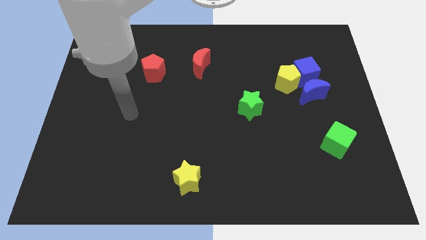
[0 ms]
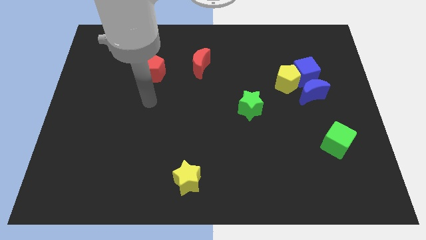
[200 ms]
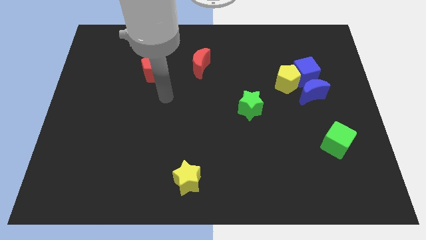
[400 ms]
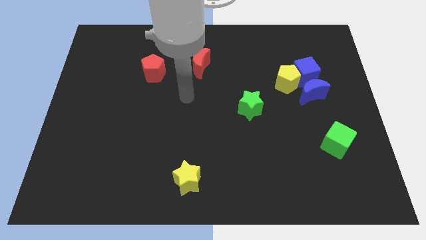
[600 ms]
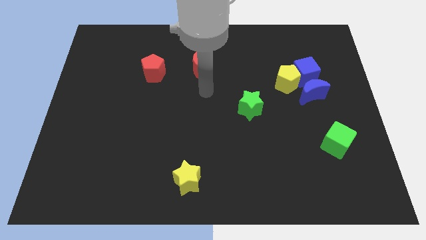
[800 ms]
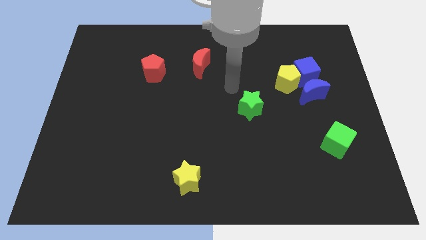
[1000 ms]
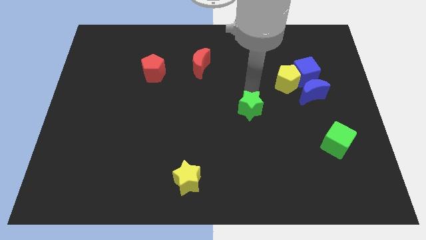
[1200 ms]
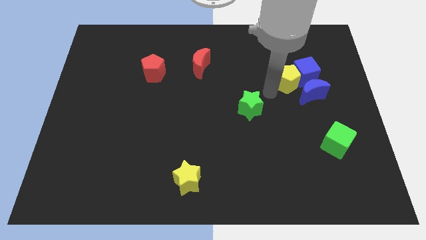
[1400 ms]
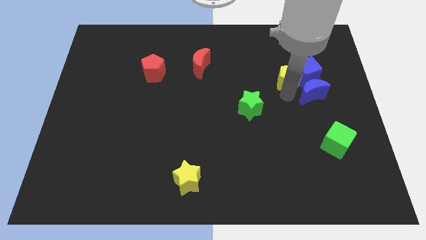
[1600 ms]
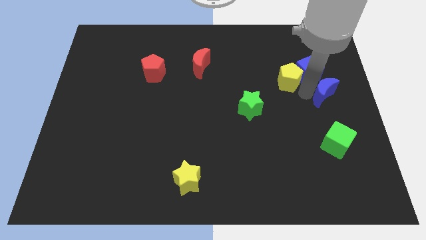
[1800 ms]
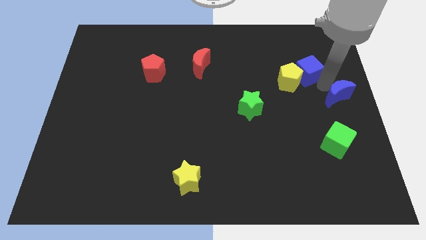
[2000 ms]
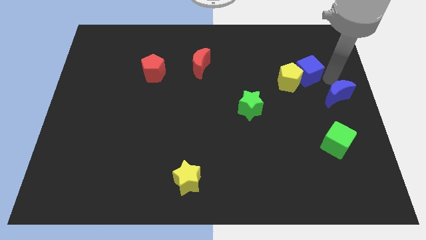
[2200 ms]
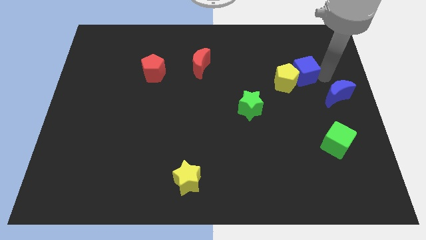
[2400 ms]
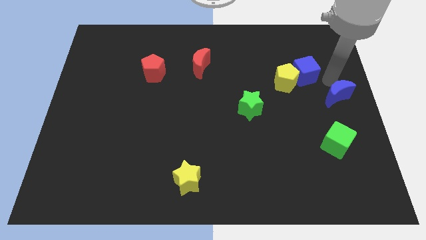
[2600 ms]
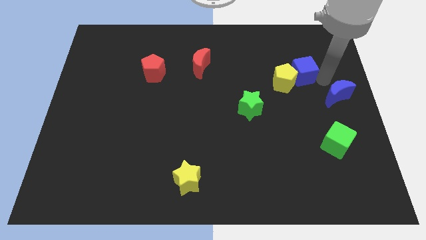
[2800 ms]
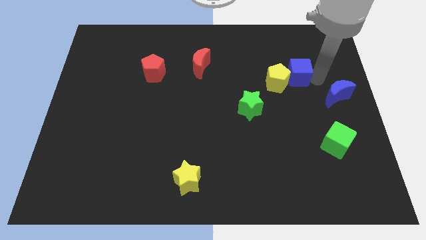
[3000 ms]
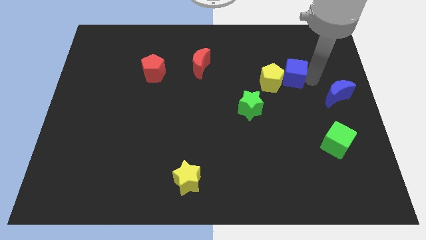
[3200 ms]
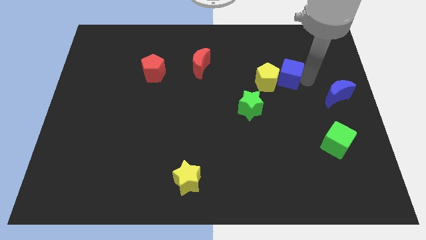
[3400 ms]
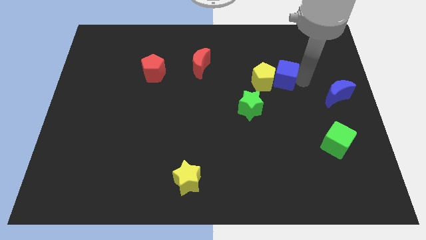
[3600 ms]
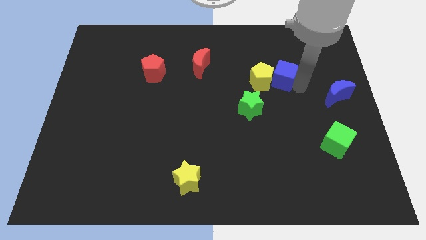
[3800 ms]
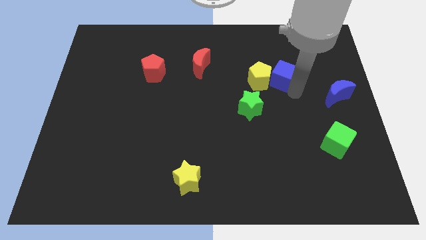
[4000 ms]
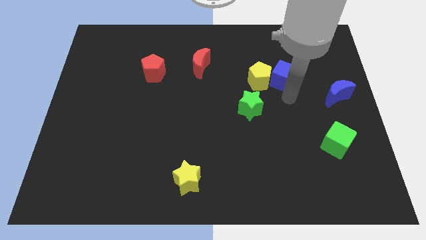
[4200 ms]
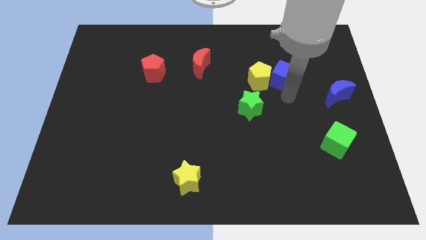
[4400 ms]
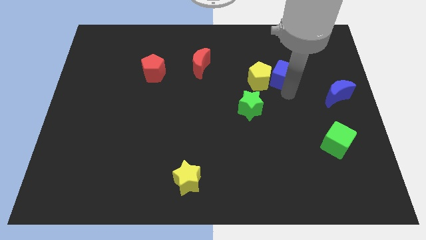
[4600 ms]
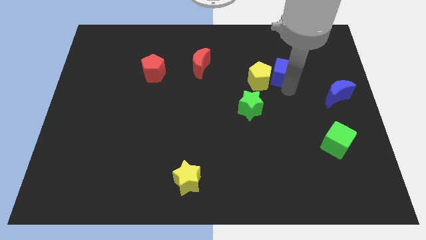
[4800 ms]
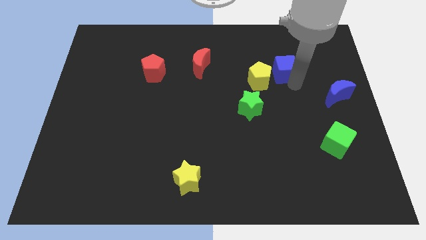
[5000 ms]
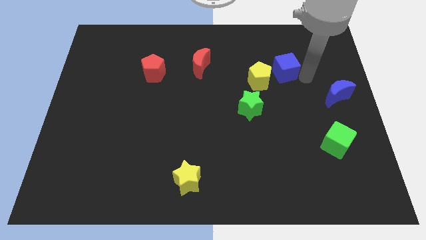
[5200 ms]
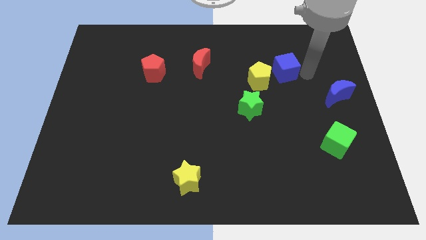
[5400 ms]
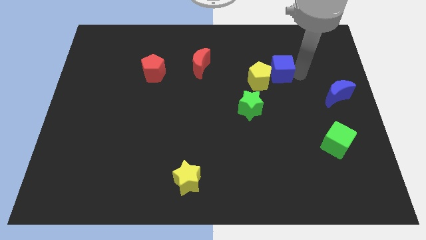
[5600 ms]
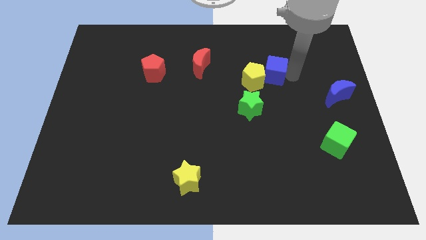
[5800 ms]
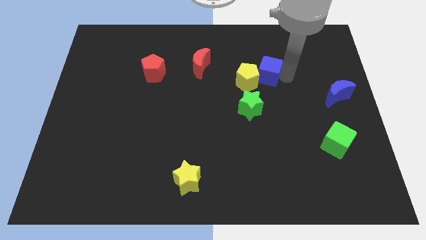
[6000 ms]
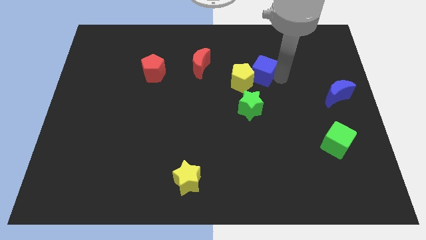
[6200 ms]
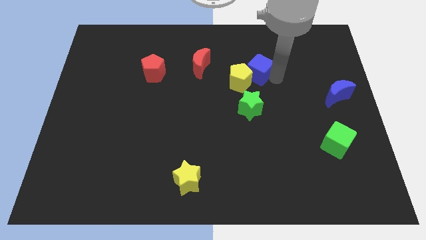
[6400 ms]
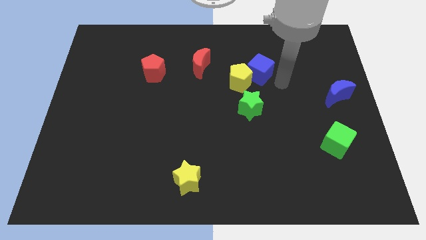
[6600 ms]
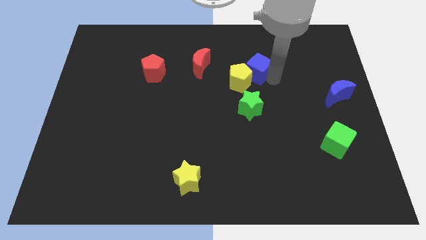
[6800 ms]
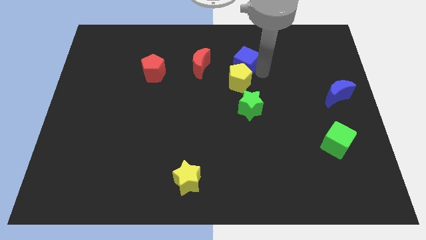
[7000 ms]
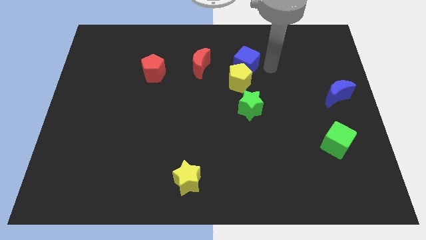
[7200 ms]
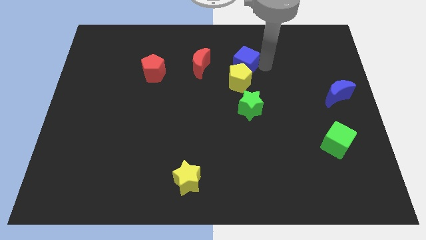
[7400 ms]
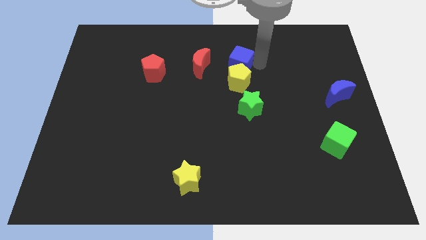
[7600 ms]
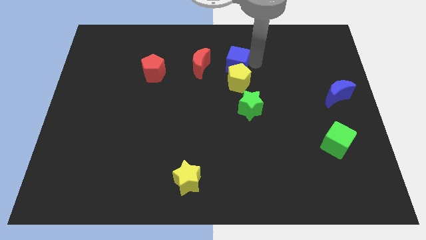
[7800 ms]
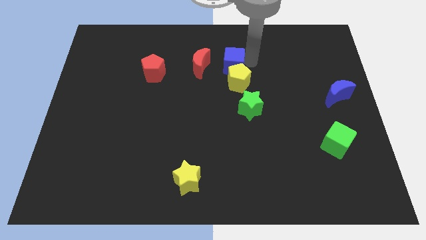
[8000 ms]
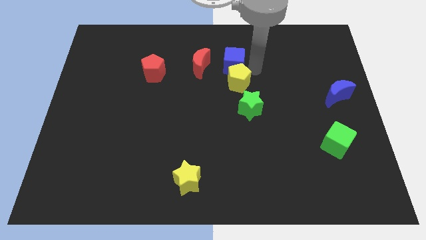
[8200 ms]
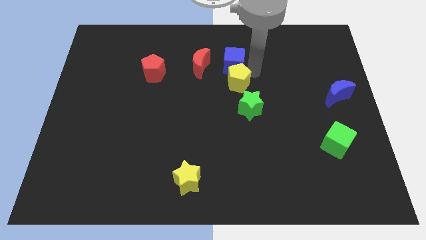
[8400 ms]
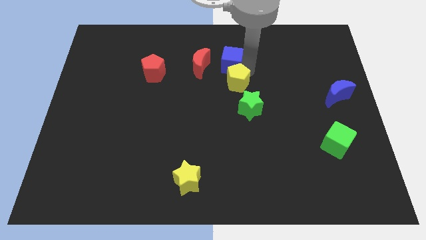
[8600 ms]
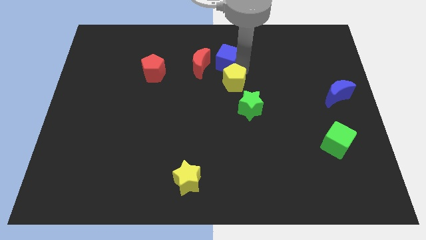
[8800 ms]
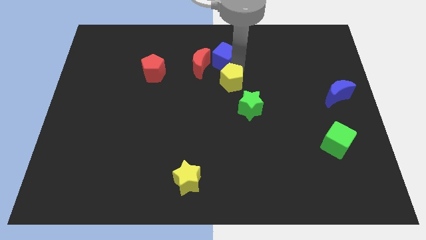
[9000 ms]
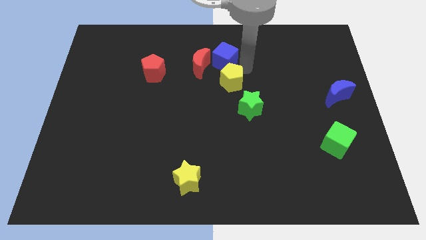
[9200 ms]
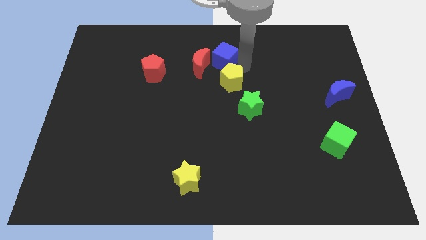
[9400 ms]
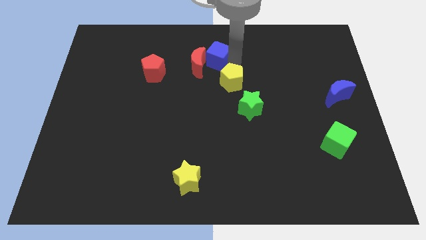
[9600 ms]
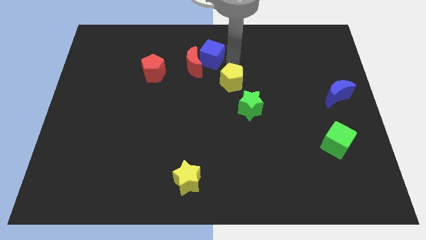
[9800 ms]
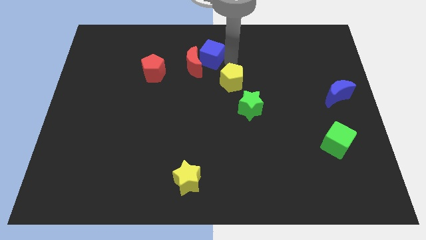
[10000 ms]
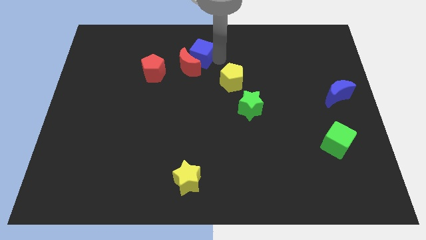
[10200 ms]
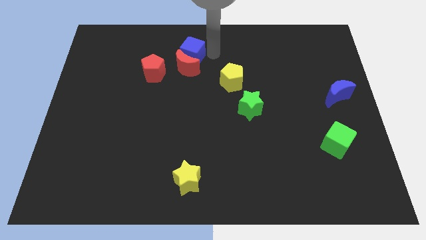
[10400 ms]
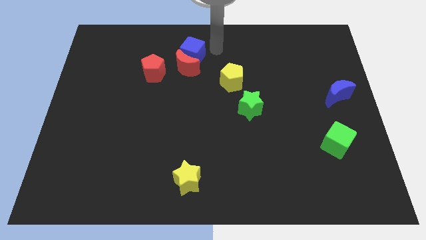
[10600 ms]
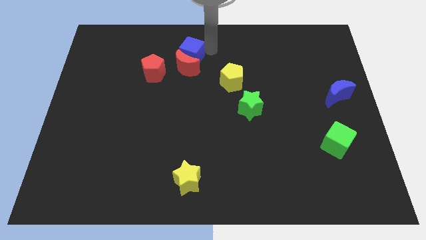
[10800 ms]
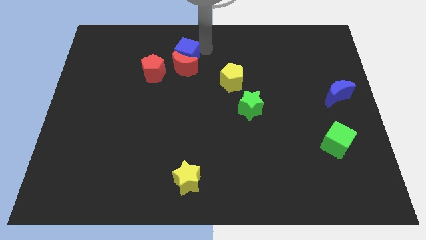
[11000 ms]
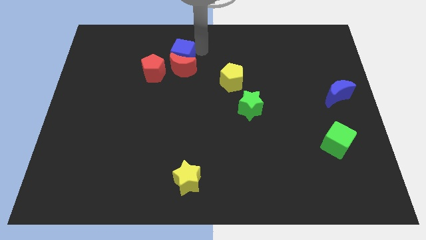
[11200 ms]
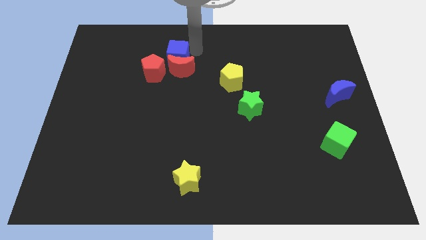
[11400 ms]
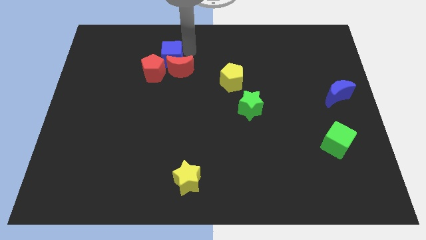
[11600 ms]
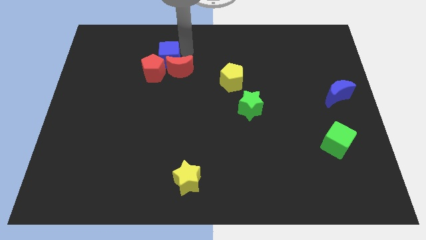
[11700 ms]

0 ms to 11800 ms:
move the blue cube to the left of the red moon

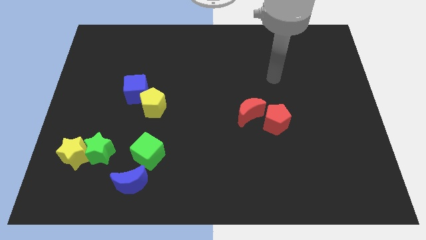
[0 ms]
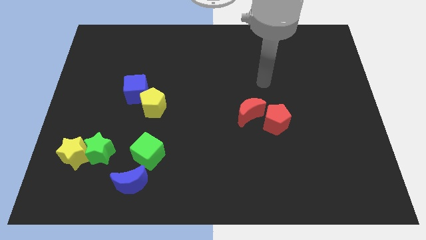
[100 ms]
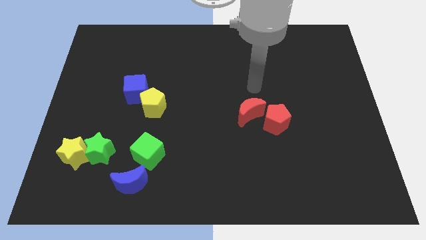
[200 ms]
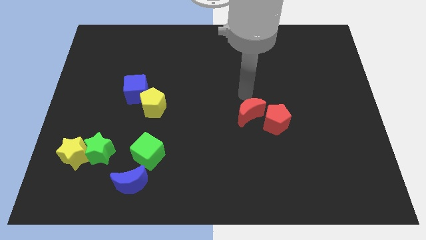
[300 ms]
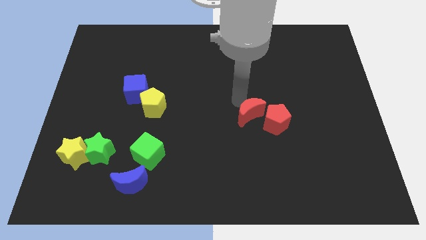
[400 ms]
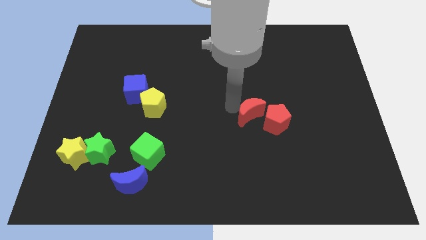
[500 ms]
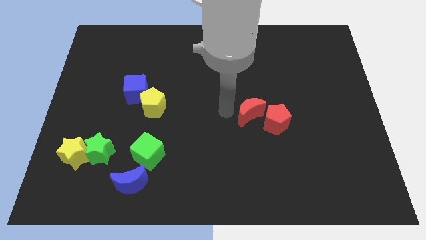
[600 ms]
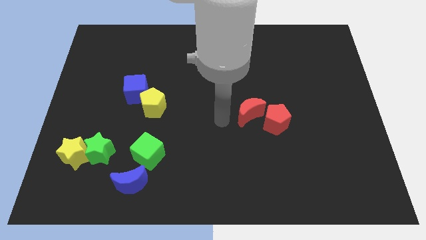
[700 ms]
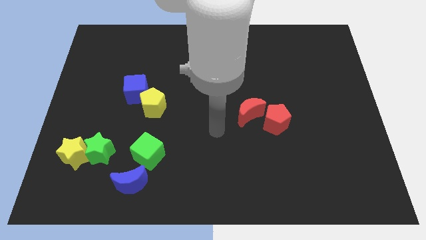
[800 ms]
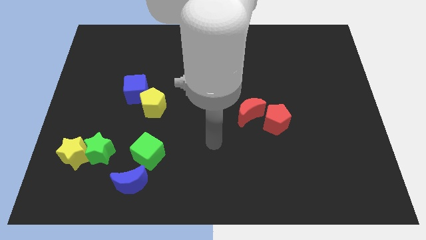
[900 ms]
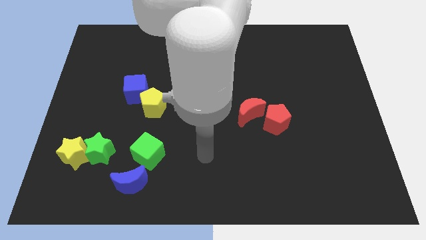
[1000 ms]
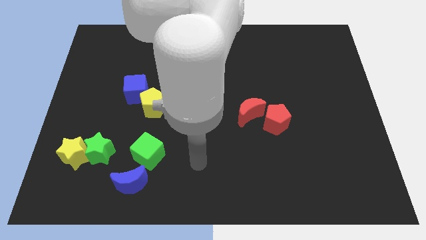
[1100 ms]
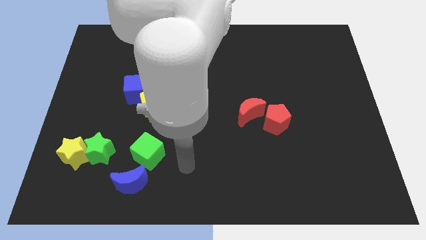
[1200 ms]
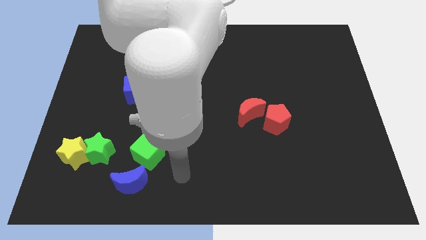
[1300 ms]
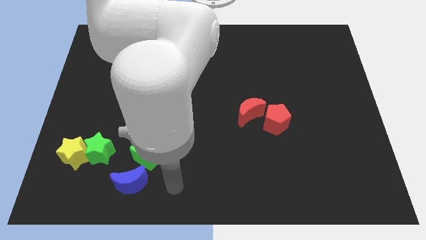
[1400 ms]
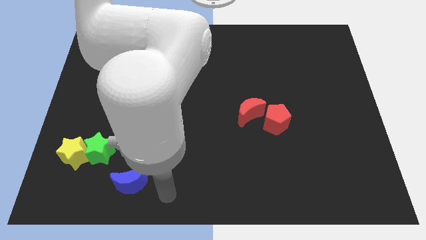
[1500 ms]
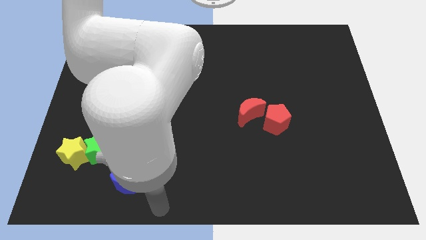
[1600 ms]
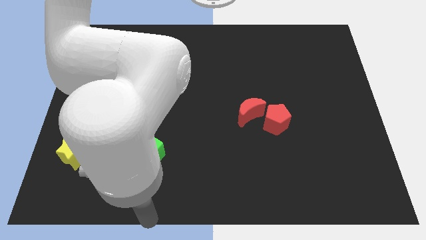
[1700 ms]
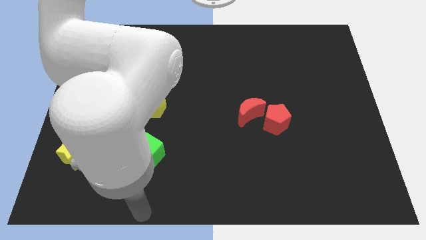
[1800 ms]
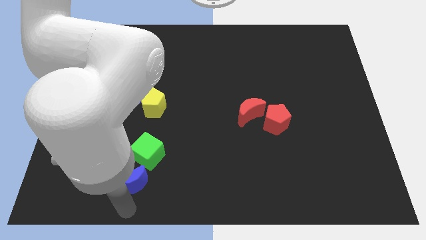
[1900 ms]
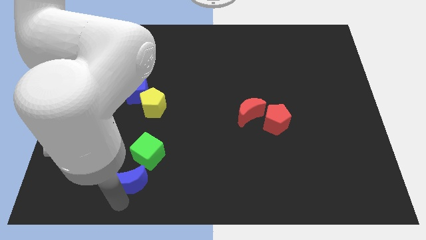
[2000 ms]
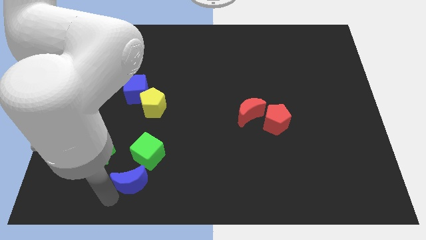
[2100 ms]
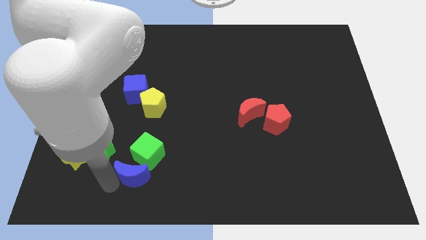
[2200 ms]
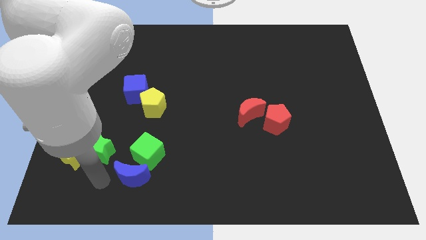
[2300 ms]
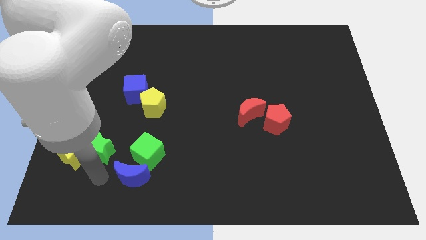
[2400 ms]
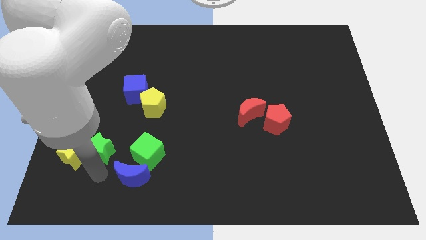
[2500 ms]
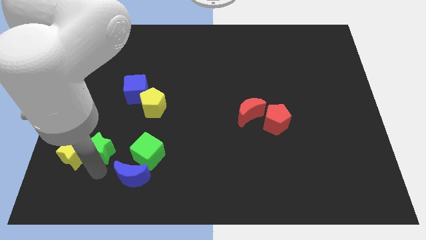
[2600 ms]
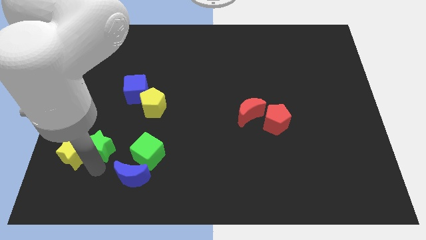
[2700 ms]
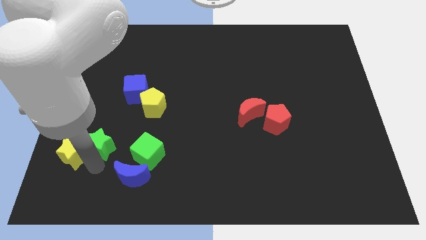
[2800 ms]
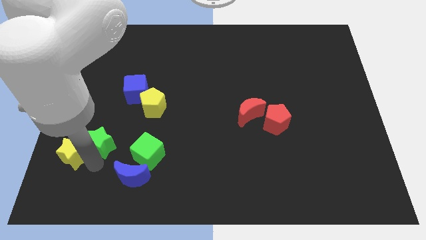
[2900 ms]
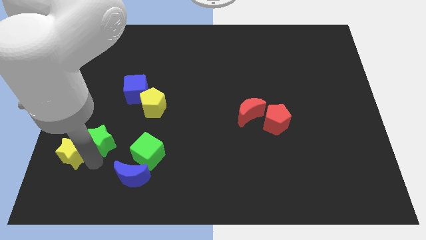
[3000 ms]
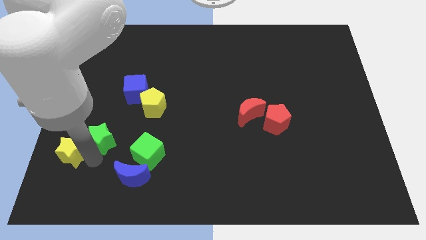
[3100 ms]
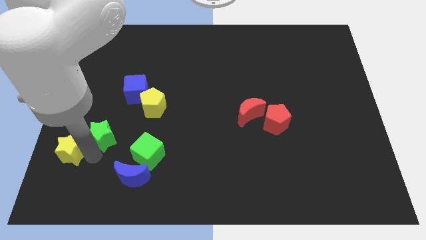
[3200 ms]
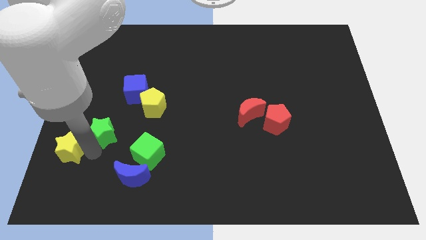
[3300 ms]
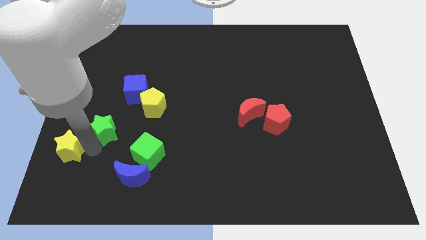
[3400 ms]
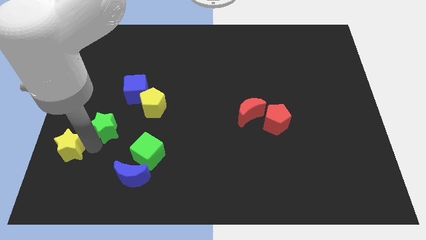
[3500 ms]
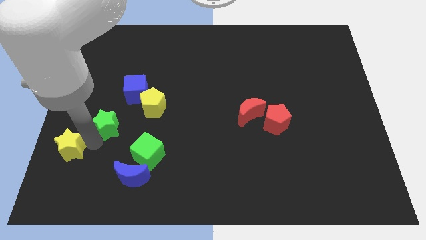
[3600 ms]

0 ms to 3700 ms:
push the green star diagonally down and to the left of the blue cube
